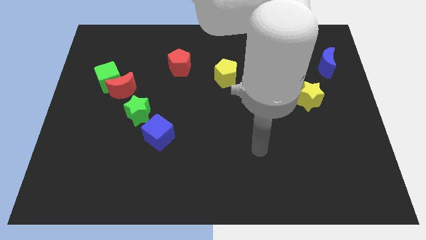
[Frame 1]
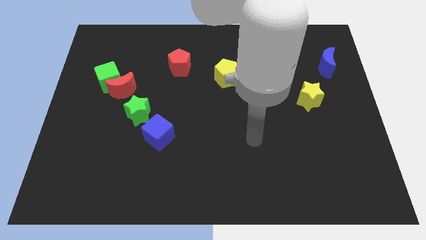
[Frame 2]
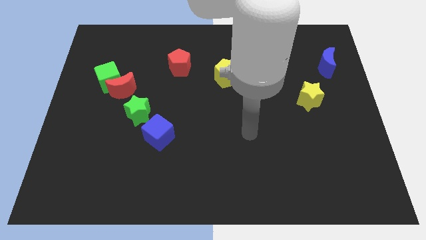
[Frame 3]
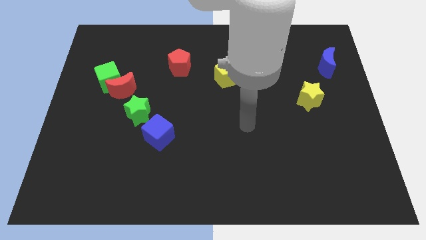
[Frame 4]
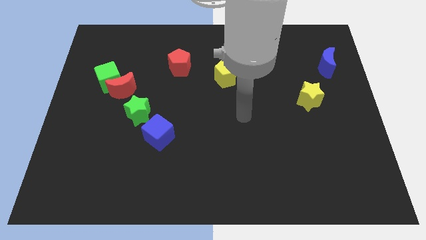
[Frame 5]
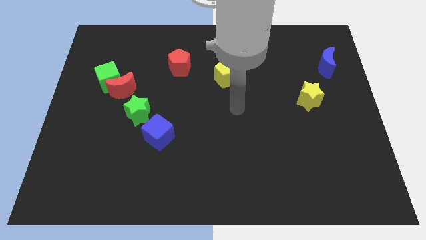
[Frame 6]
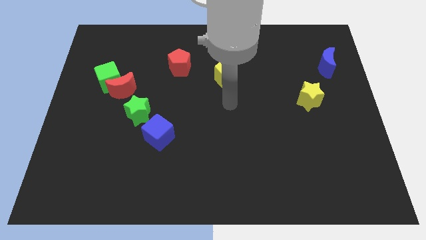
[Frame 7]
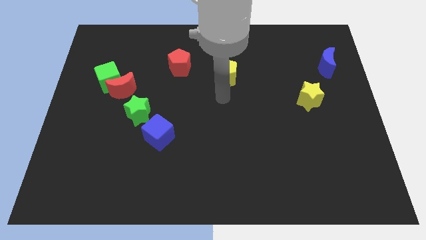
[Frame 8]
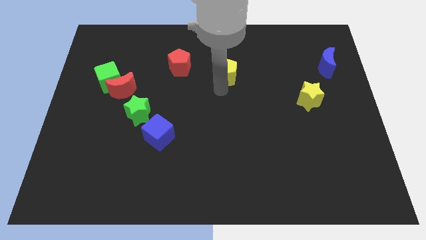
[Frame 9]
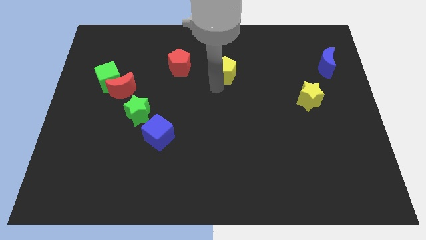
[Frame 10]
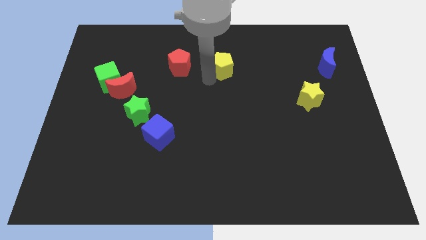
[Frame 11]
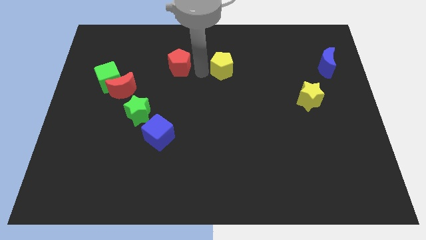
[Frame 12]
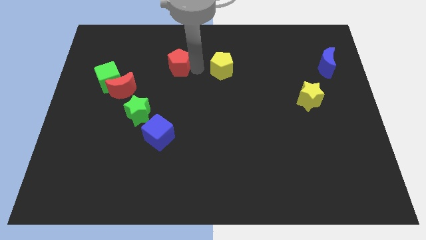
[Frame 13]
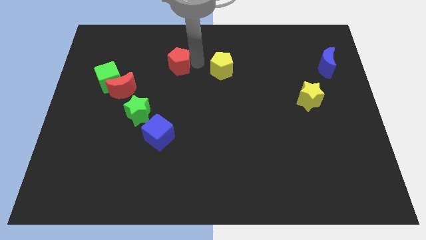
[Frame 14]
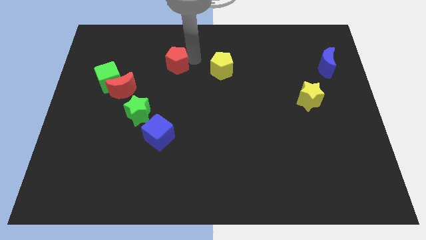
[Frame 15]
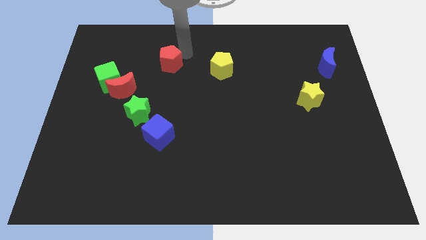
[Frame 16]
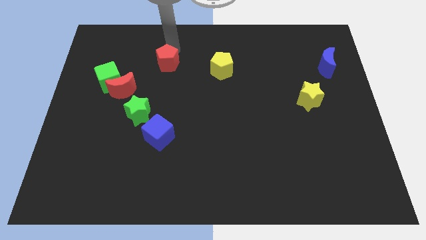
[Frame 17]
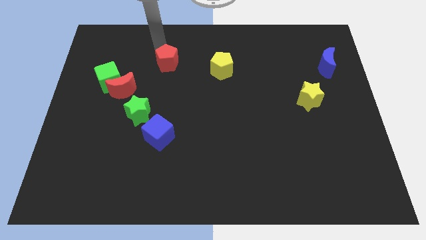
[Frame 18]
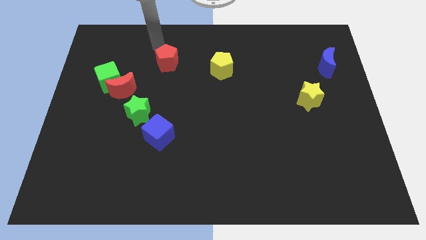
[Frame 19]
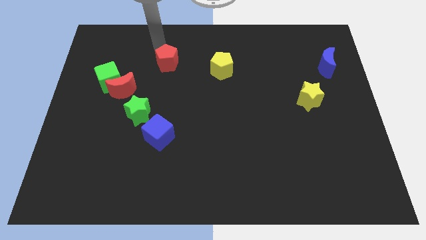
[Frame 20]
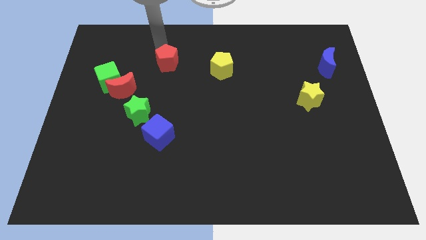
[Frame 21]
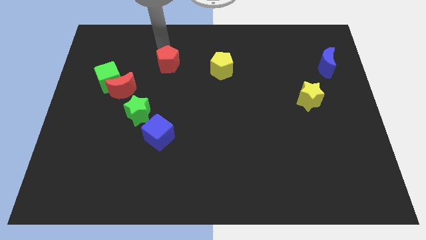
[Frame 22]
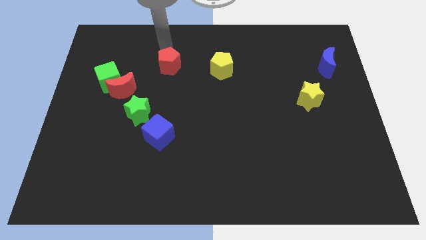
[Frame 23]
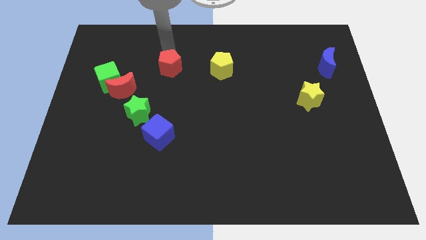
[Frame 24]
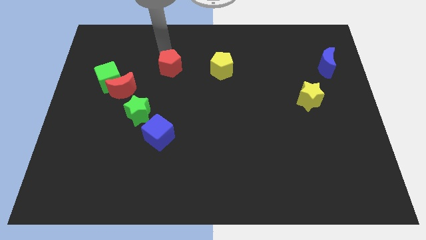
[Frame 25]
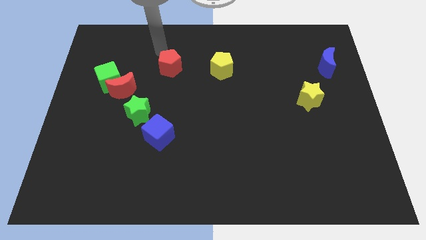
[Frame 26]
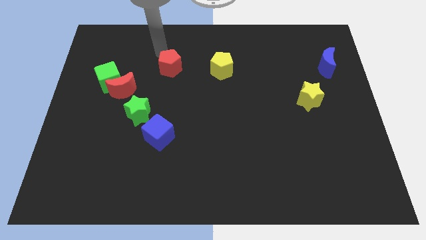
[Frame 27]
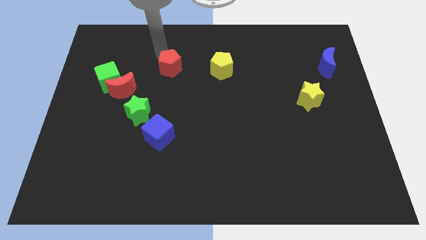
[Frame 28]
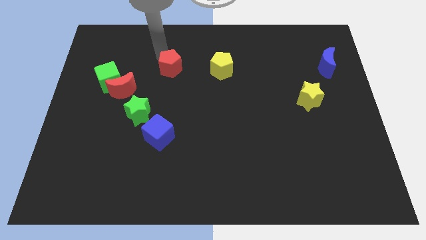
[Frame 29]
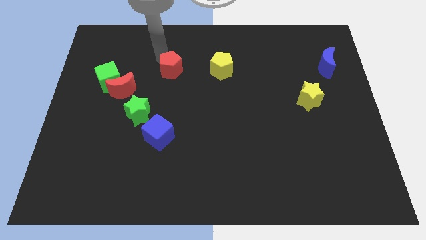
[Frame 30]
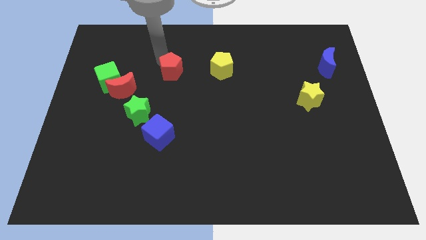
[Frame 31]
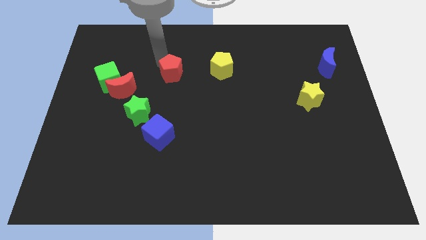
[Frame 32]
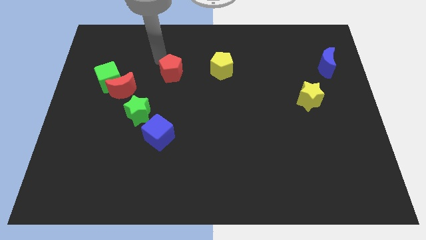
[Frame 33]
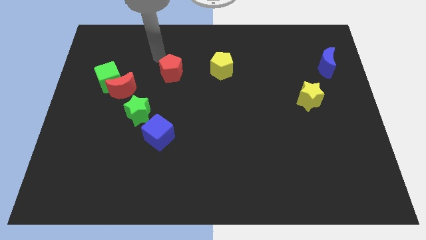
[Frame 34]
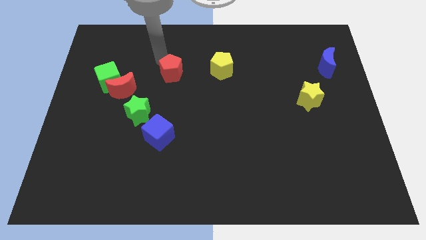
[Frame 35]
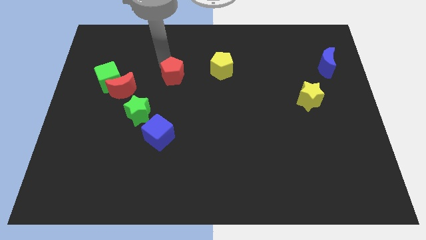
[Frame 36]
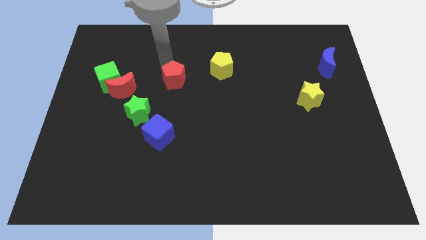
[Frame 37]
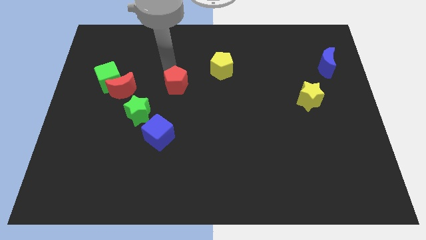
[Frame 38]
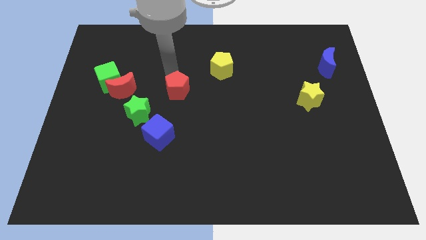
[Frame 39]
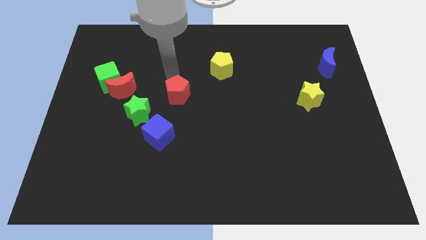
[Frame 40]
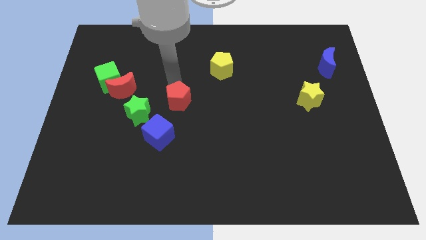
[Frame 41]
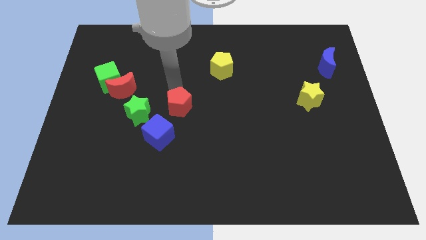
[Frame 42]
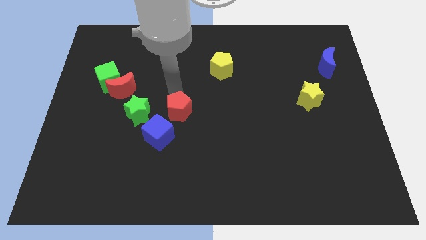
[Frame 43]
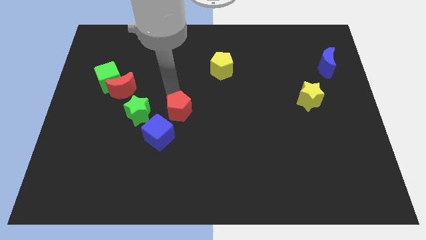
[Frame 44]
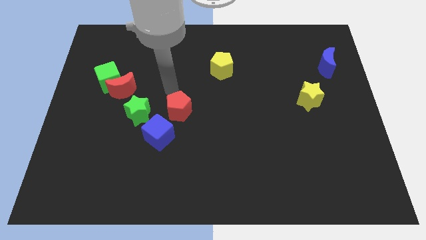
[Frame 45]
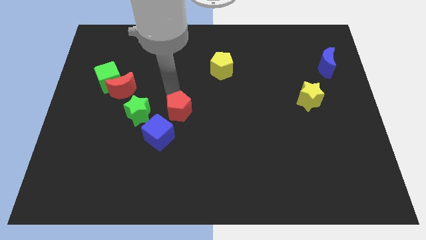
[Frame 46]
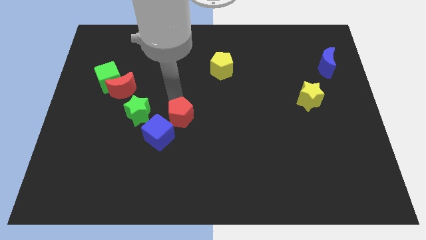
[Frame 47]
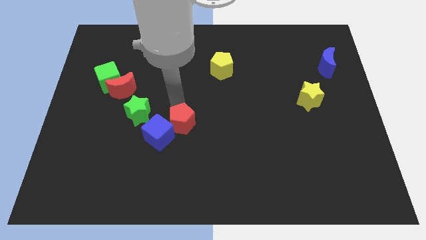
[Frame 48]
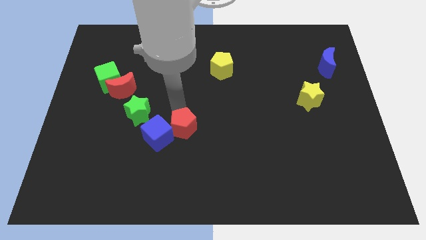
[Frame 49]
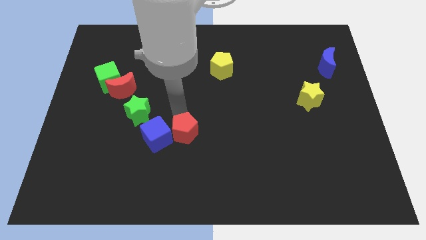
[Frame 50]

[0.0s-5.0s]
slide the red pentagon downwards

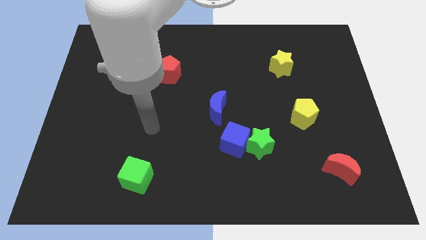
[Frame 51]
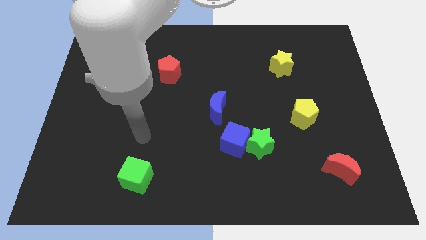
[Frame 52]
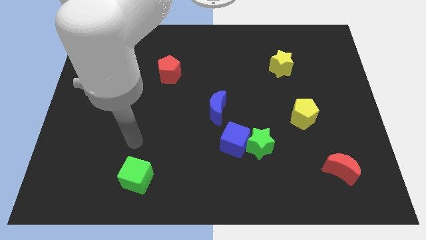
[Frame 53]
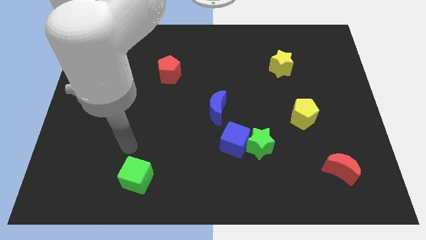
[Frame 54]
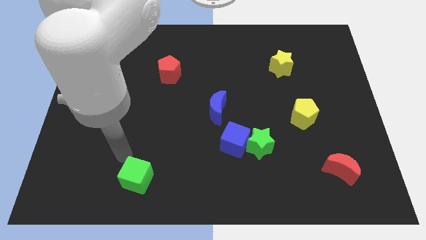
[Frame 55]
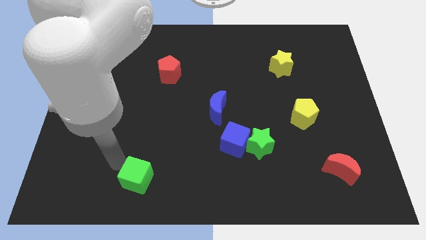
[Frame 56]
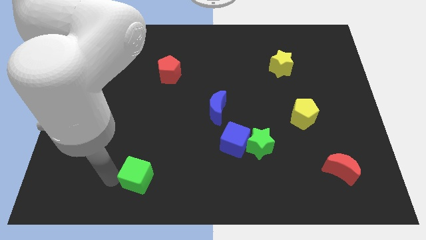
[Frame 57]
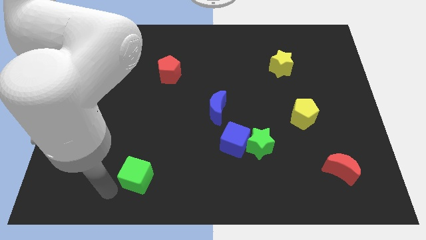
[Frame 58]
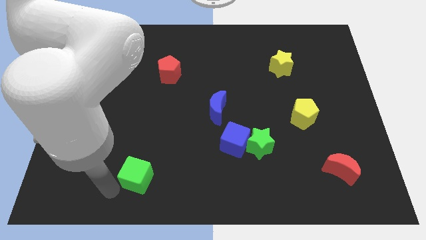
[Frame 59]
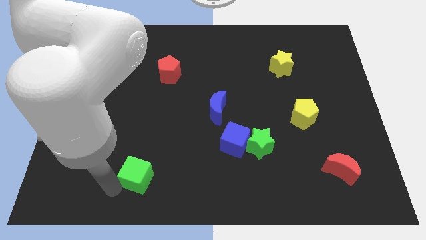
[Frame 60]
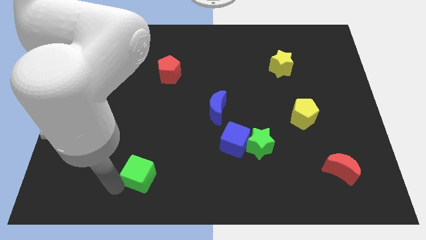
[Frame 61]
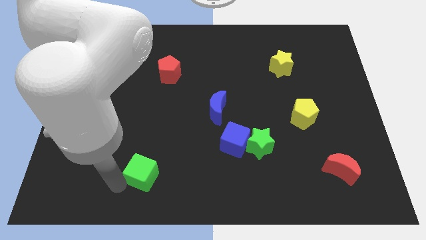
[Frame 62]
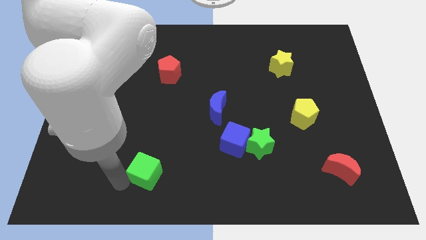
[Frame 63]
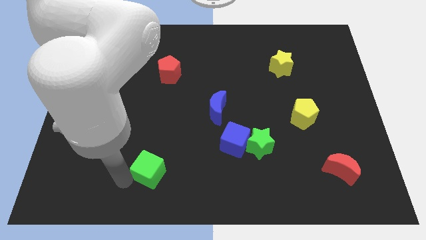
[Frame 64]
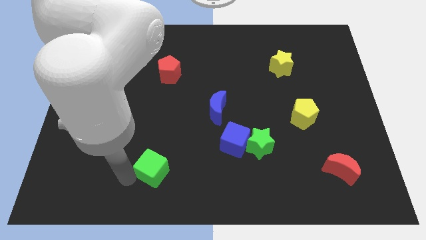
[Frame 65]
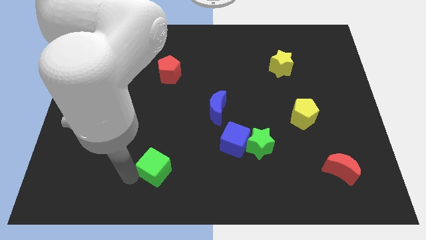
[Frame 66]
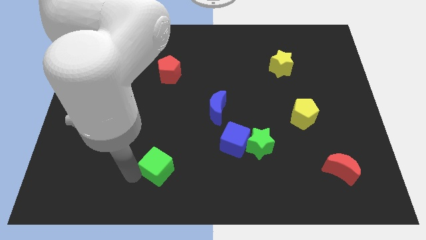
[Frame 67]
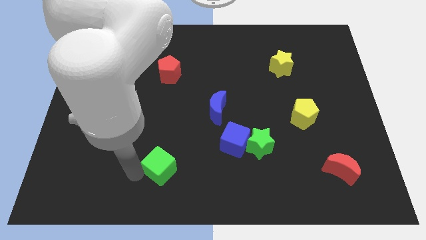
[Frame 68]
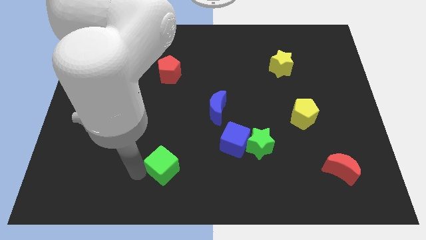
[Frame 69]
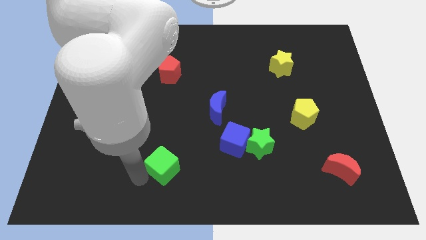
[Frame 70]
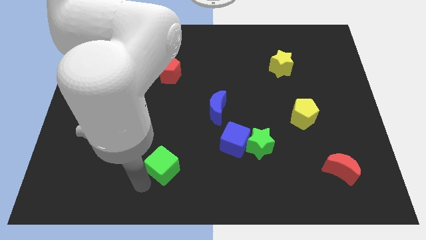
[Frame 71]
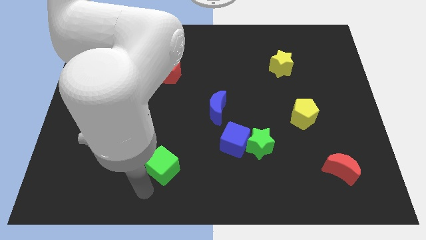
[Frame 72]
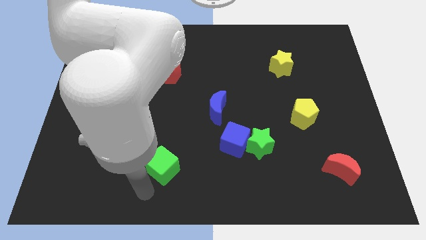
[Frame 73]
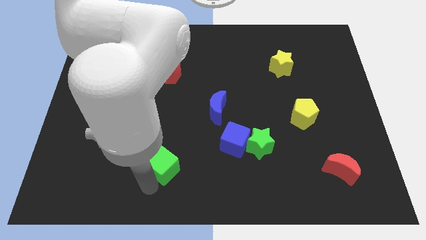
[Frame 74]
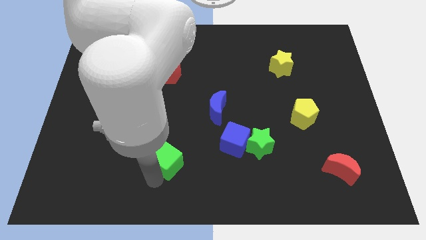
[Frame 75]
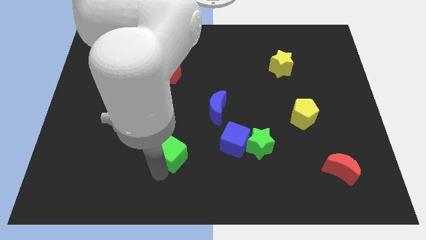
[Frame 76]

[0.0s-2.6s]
push the green cube diagonally upwards and to the right a bit

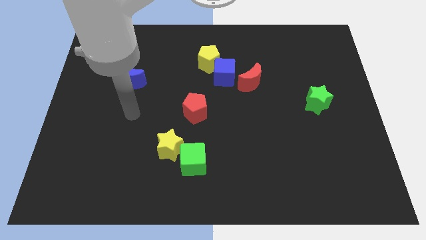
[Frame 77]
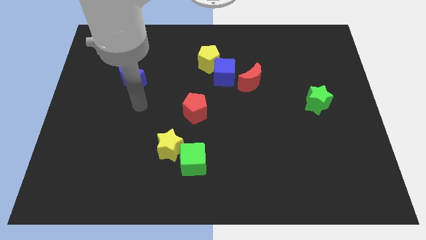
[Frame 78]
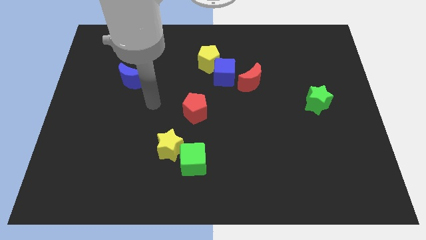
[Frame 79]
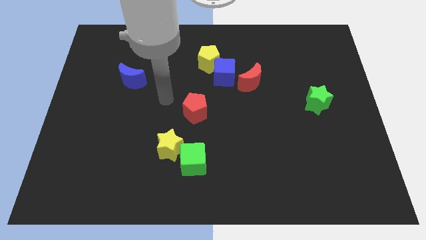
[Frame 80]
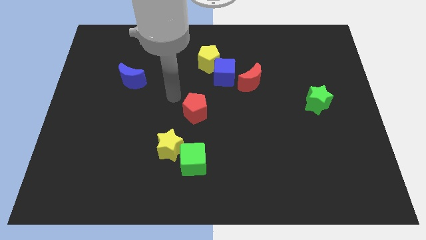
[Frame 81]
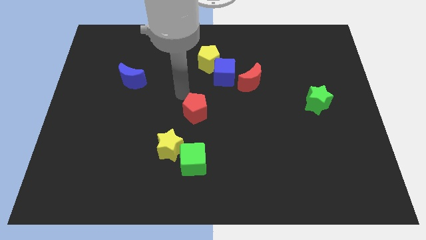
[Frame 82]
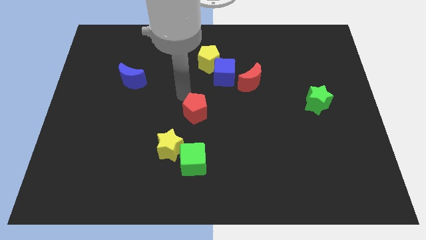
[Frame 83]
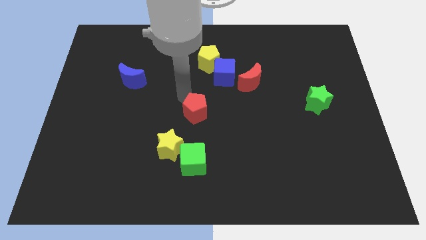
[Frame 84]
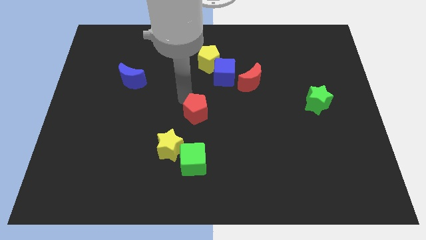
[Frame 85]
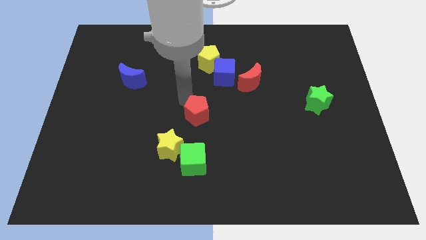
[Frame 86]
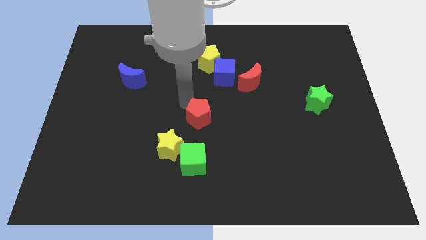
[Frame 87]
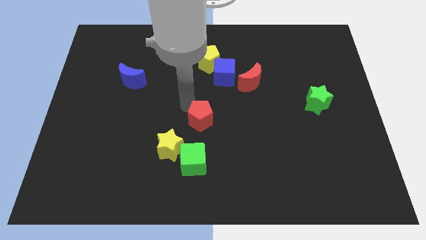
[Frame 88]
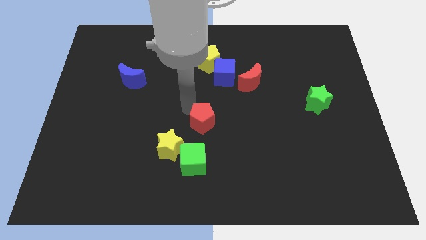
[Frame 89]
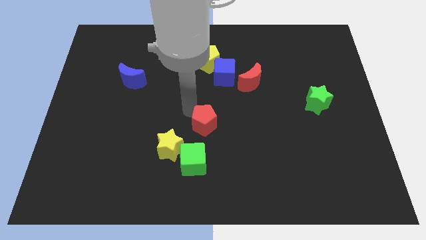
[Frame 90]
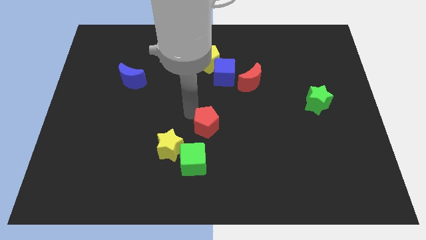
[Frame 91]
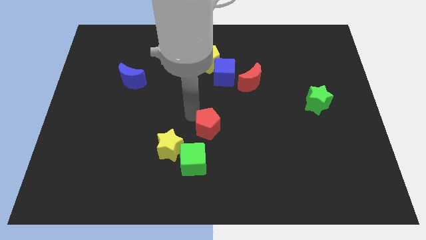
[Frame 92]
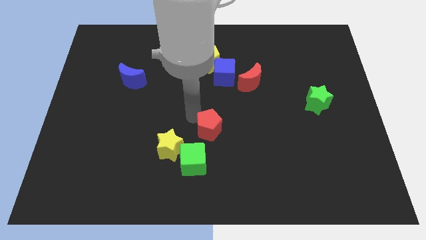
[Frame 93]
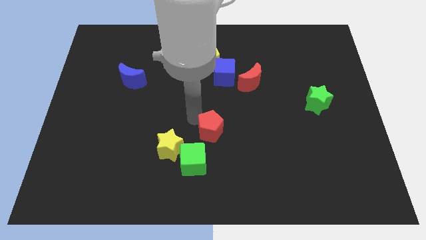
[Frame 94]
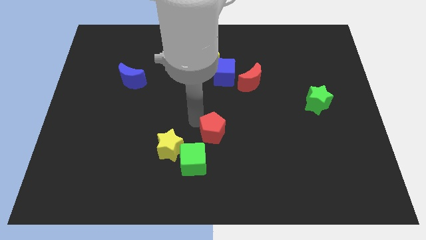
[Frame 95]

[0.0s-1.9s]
slide the red pentagon down and to the right slightly
